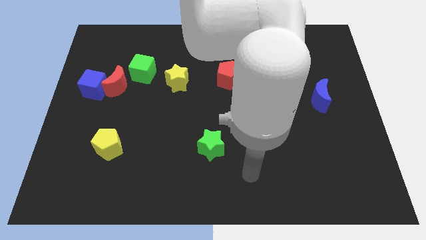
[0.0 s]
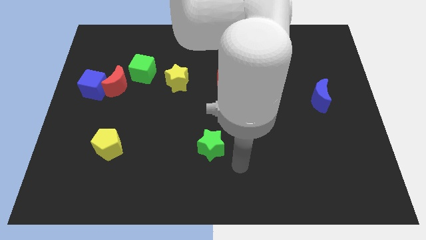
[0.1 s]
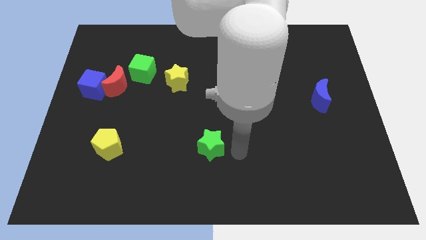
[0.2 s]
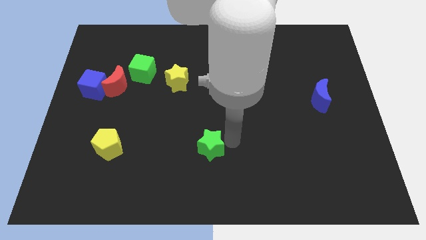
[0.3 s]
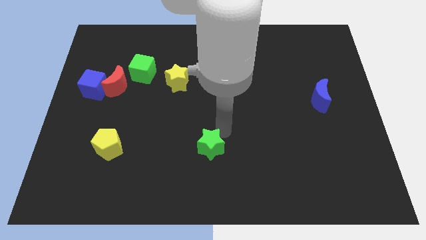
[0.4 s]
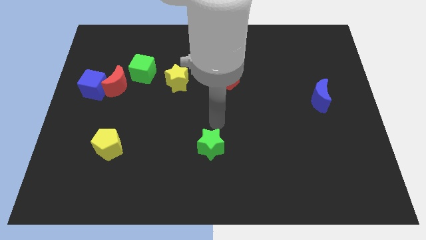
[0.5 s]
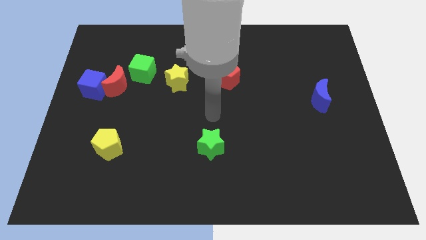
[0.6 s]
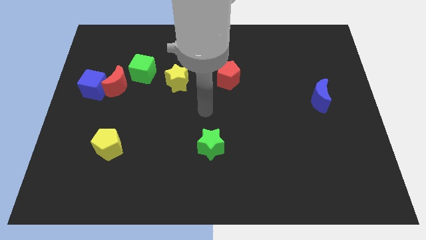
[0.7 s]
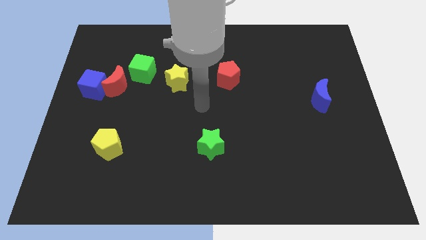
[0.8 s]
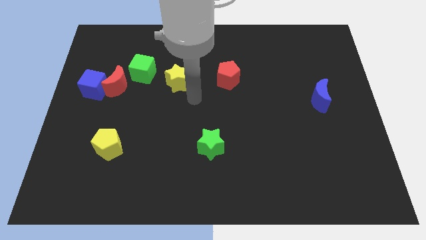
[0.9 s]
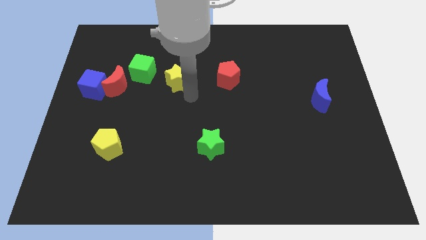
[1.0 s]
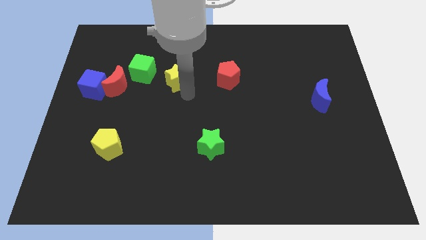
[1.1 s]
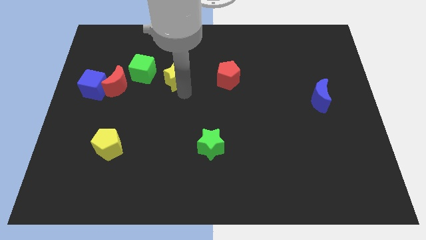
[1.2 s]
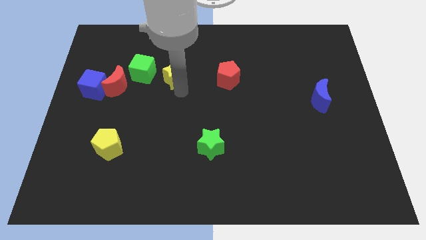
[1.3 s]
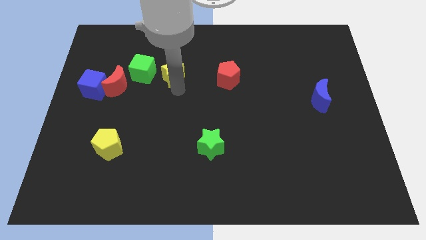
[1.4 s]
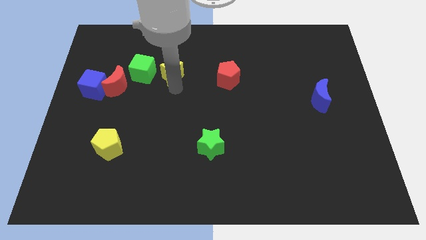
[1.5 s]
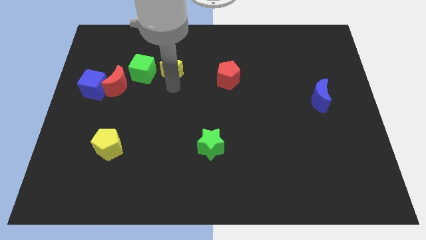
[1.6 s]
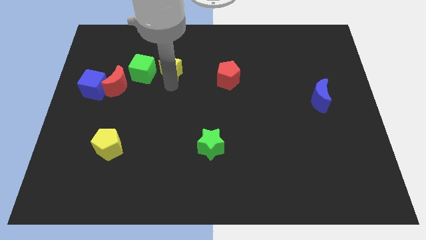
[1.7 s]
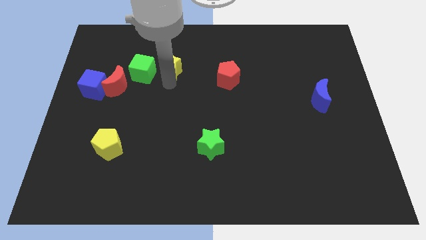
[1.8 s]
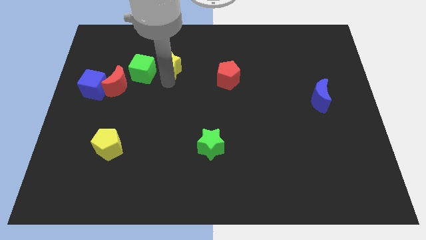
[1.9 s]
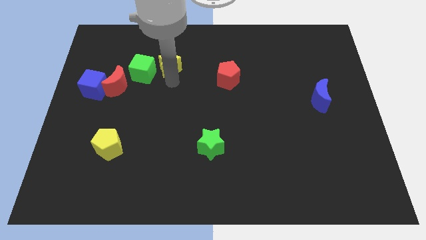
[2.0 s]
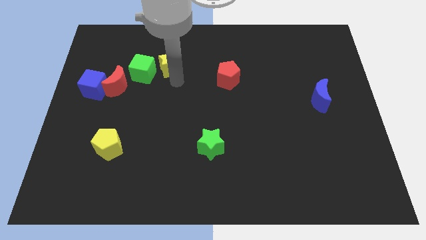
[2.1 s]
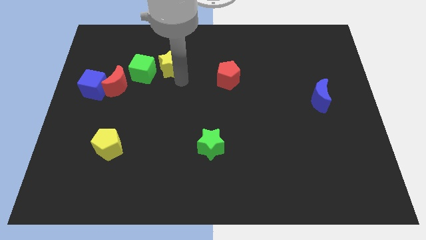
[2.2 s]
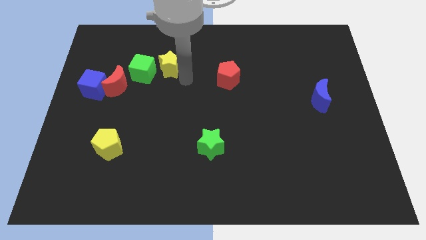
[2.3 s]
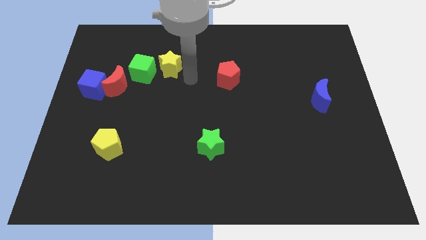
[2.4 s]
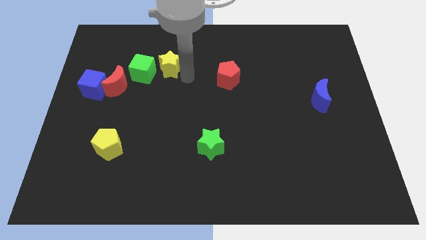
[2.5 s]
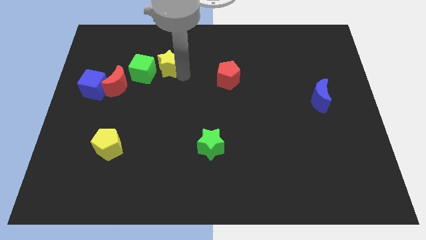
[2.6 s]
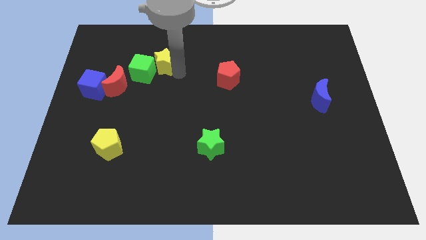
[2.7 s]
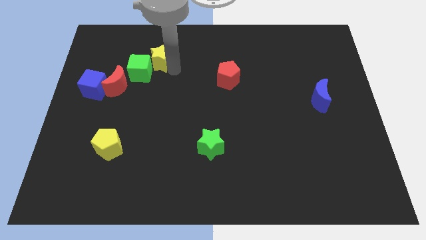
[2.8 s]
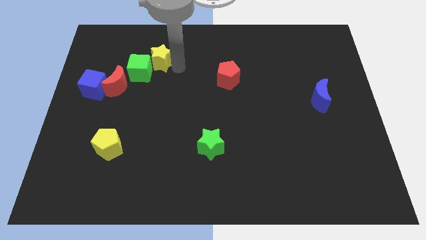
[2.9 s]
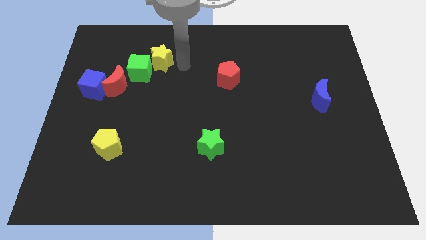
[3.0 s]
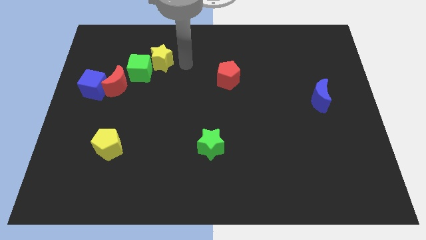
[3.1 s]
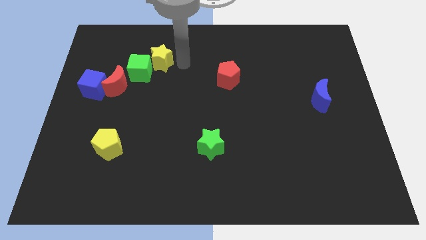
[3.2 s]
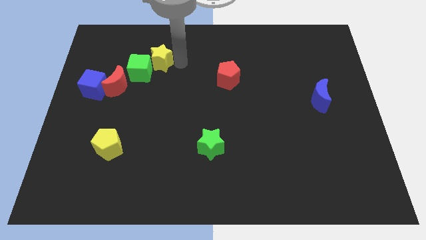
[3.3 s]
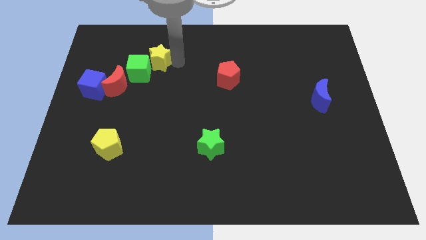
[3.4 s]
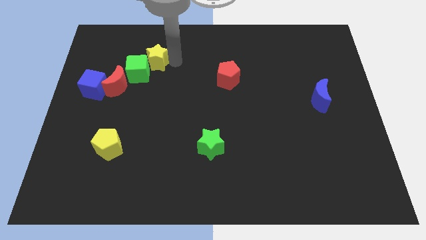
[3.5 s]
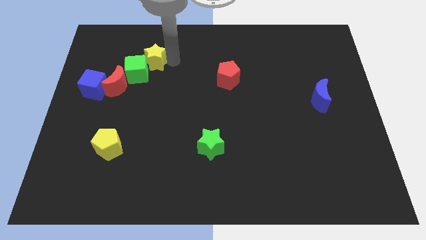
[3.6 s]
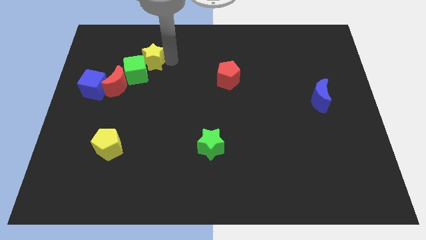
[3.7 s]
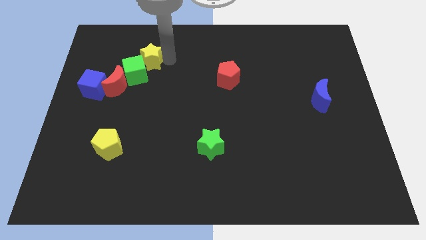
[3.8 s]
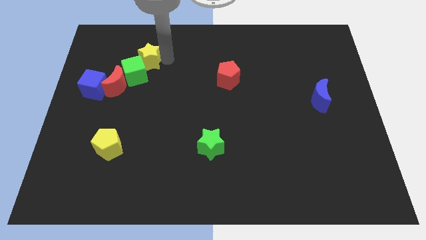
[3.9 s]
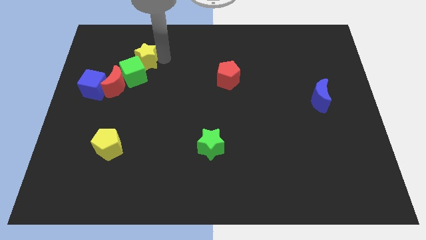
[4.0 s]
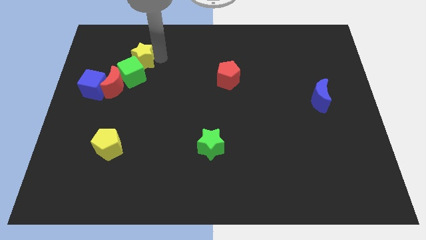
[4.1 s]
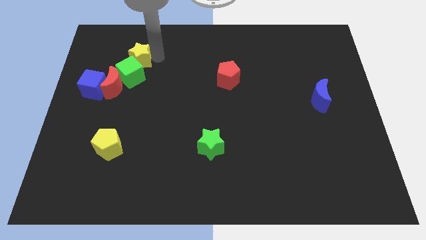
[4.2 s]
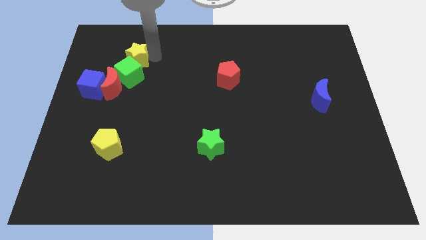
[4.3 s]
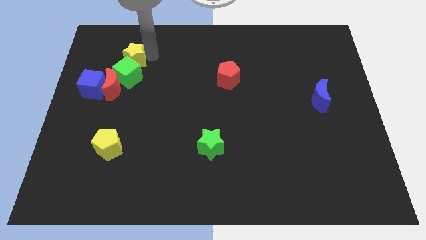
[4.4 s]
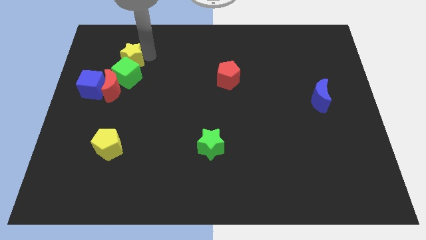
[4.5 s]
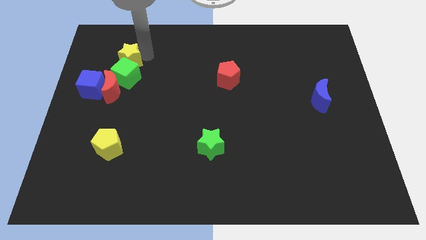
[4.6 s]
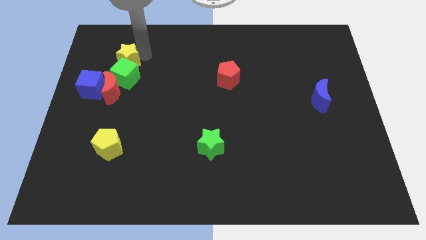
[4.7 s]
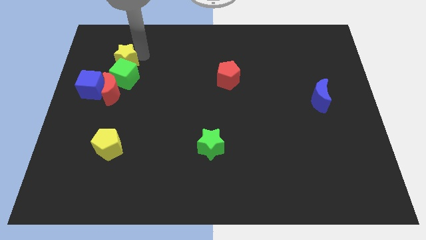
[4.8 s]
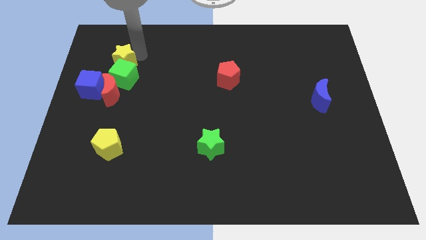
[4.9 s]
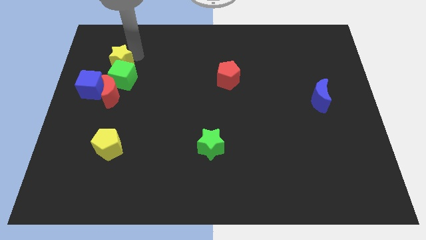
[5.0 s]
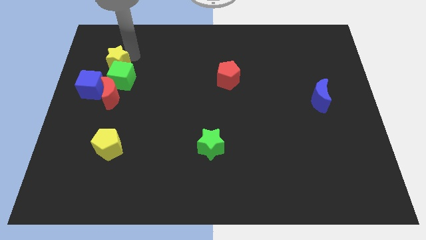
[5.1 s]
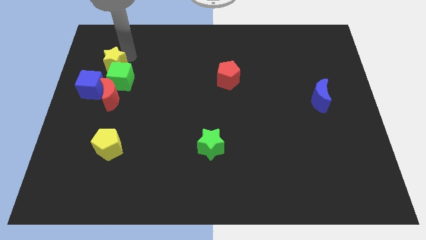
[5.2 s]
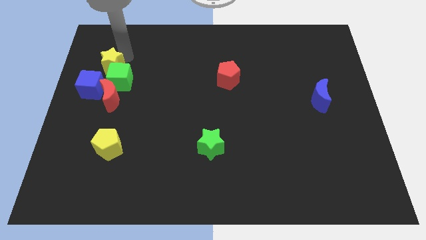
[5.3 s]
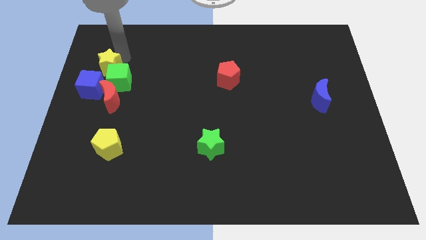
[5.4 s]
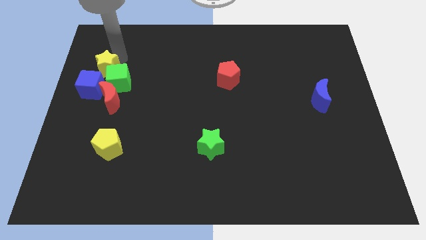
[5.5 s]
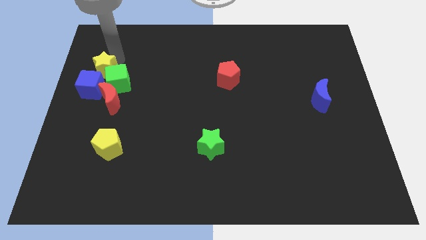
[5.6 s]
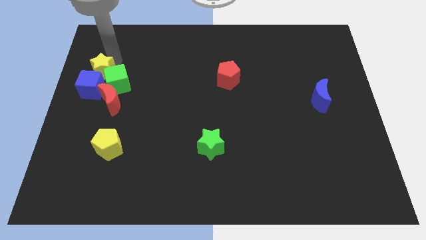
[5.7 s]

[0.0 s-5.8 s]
push the yellow star to the top left of the red moon

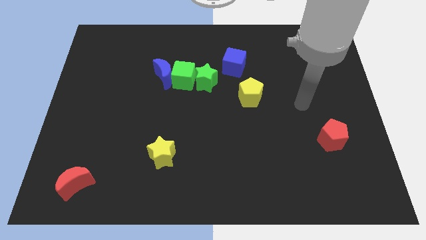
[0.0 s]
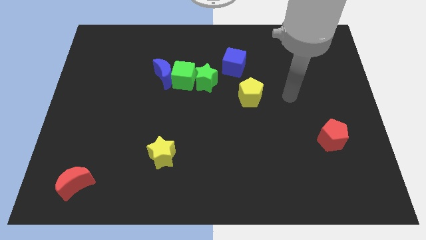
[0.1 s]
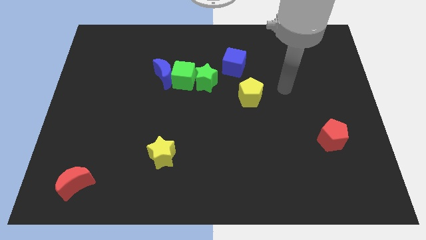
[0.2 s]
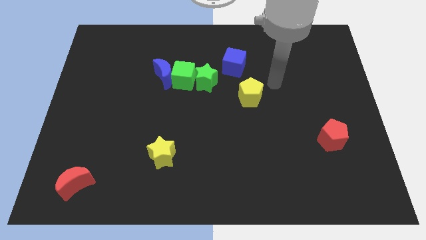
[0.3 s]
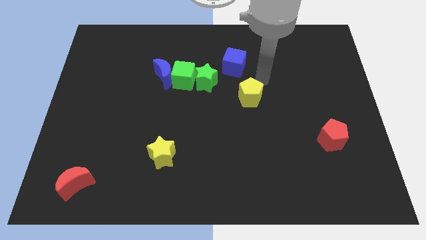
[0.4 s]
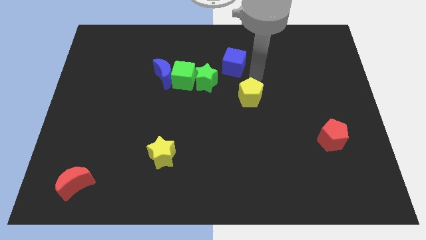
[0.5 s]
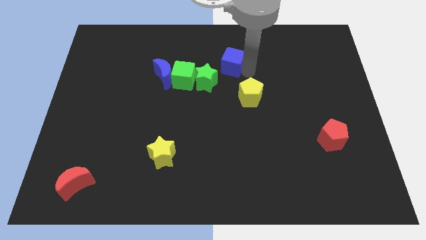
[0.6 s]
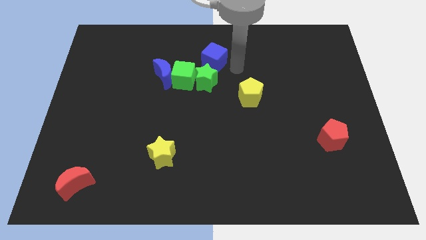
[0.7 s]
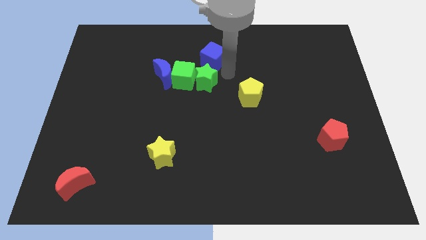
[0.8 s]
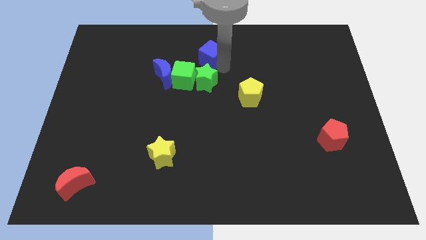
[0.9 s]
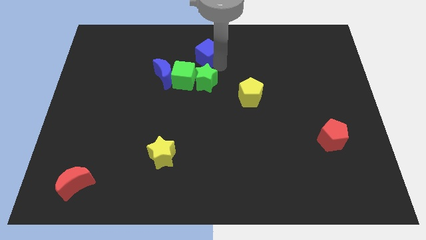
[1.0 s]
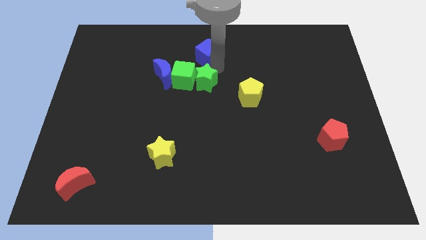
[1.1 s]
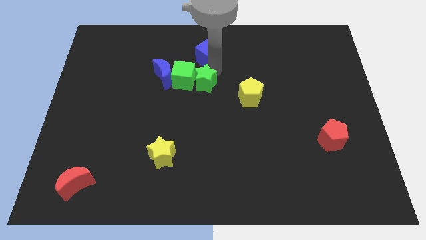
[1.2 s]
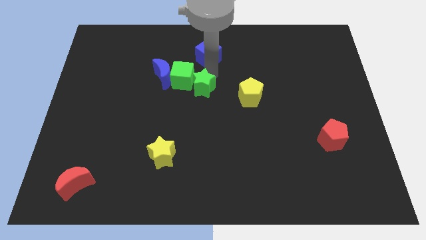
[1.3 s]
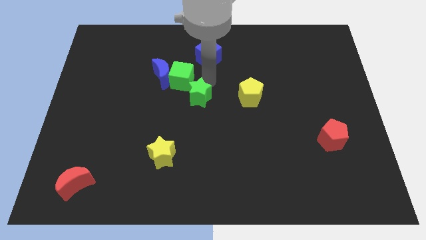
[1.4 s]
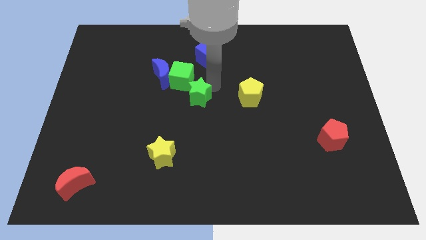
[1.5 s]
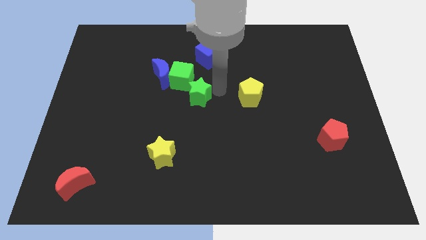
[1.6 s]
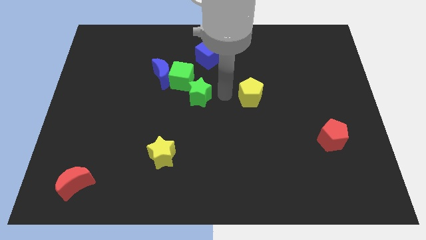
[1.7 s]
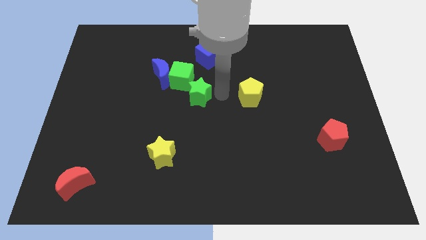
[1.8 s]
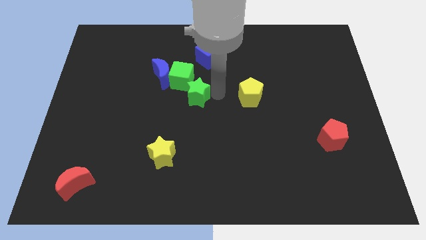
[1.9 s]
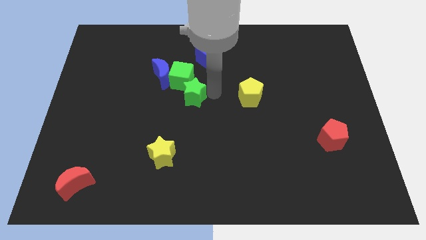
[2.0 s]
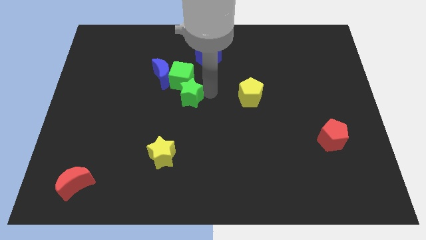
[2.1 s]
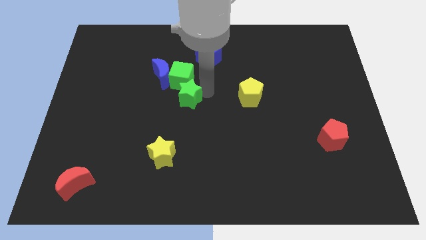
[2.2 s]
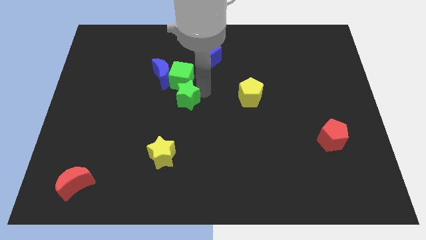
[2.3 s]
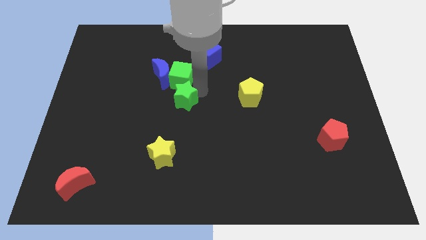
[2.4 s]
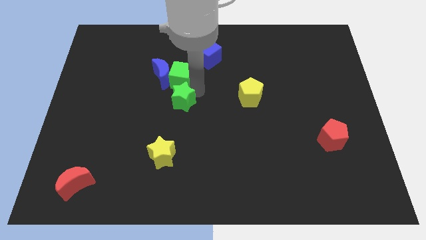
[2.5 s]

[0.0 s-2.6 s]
put the green star diagonally down and to the left of the green cube
